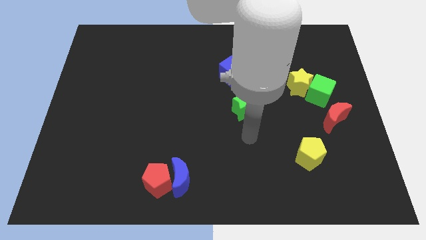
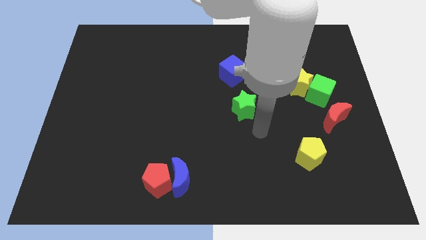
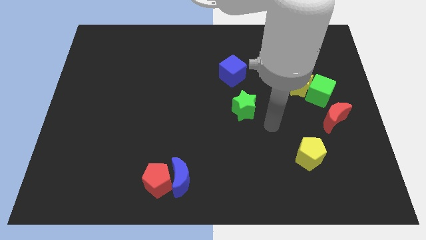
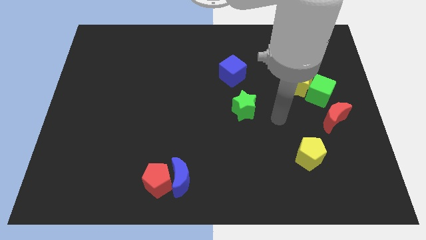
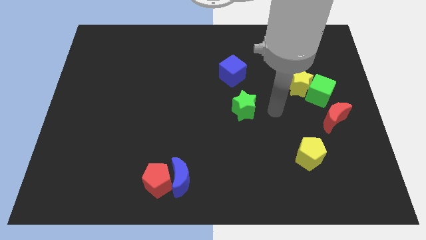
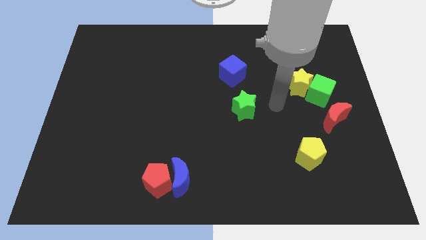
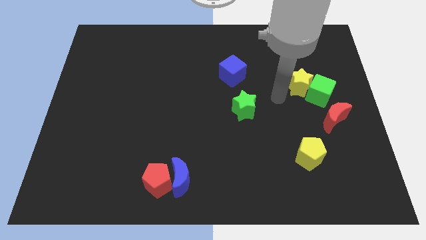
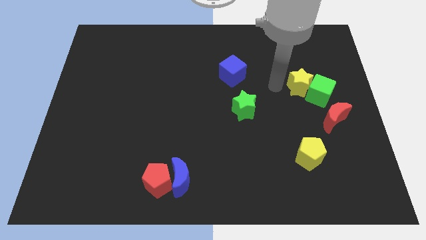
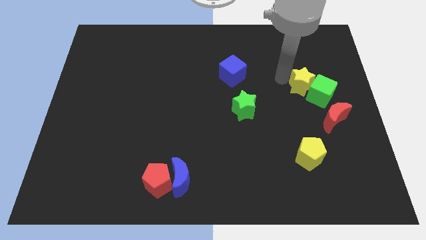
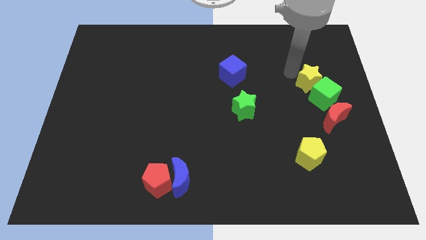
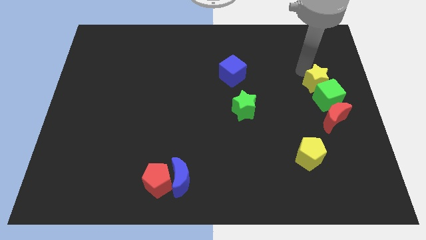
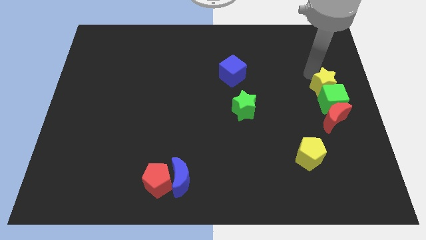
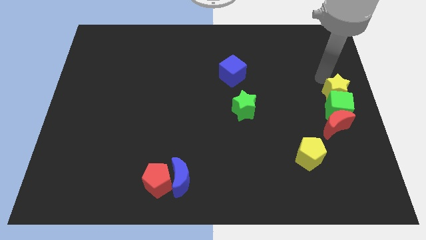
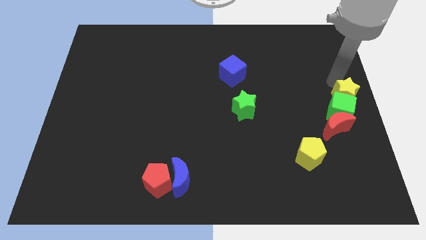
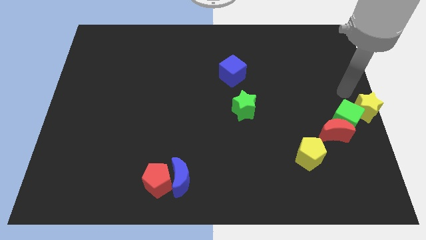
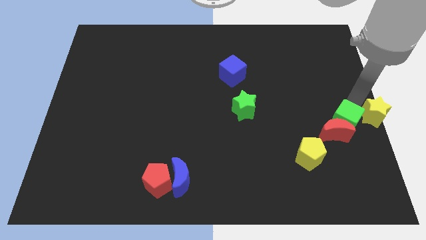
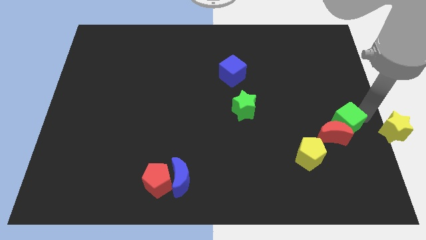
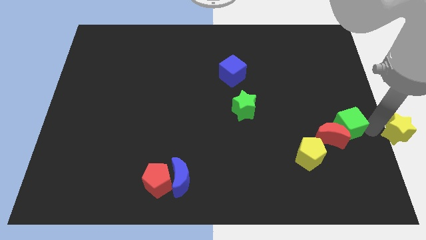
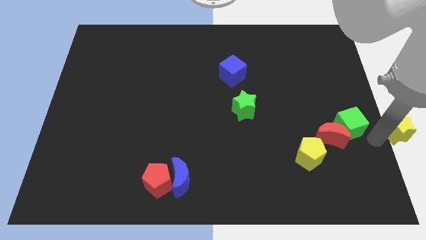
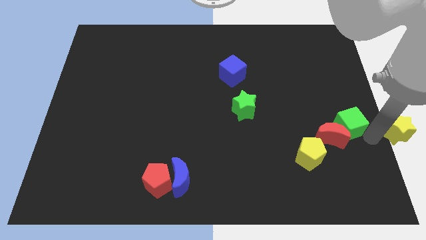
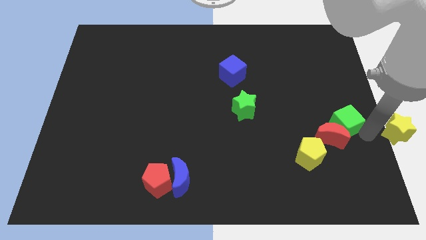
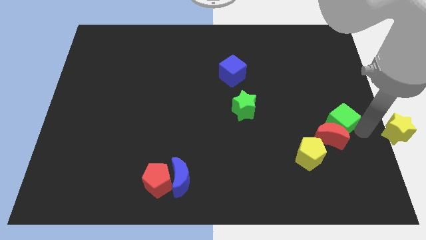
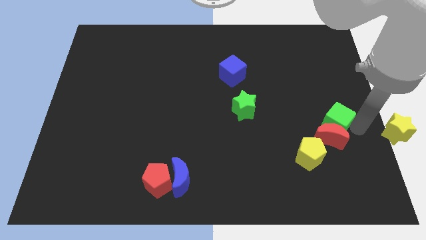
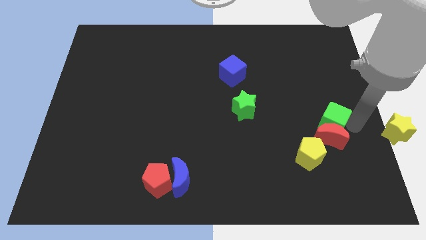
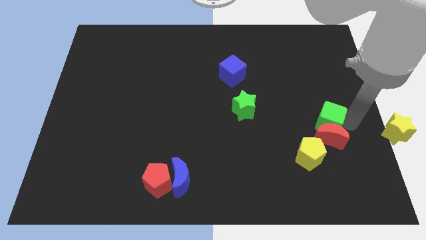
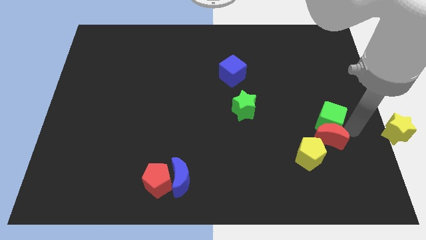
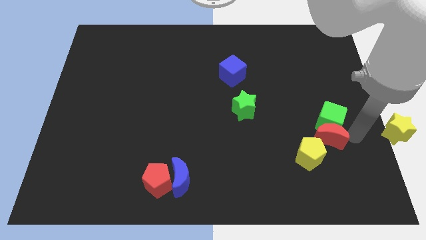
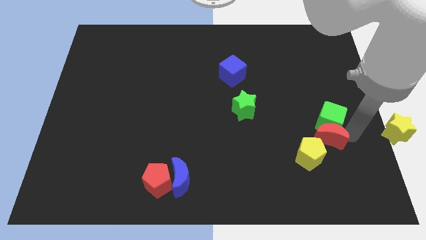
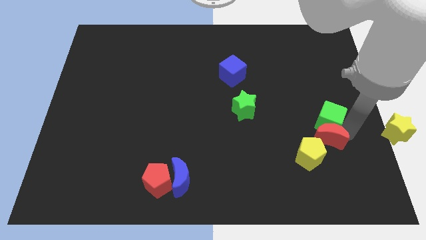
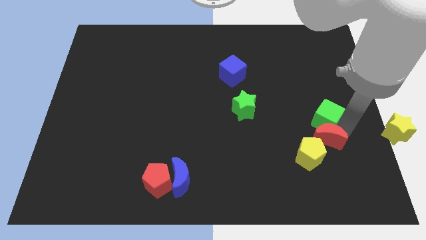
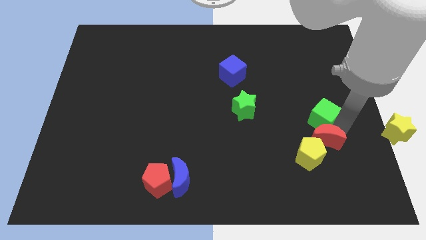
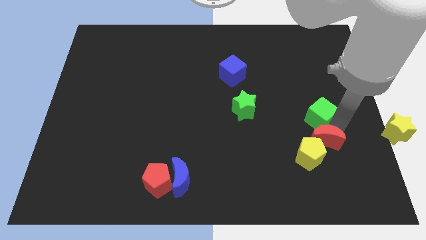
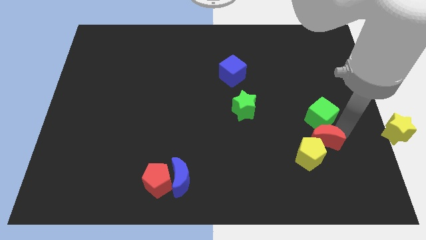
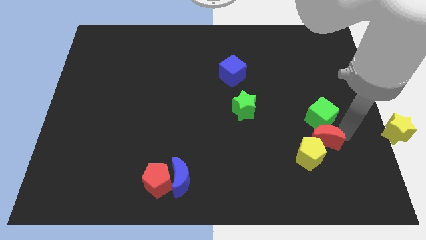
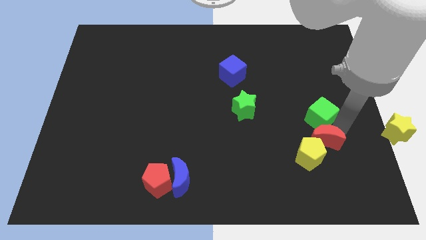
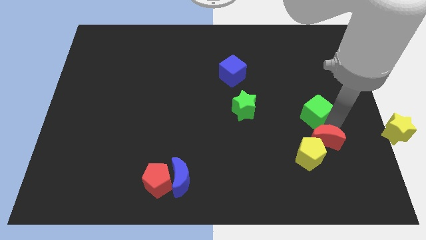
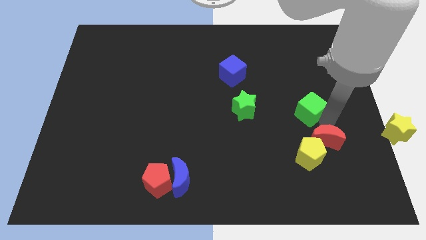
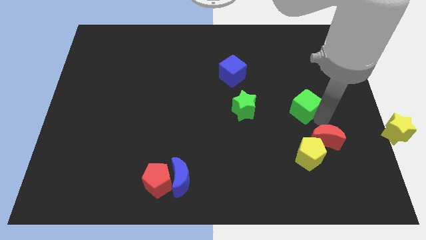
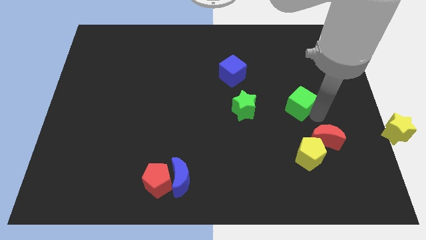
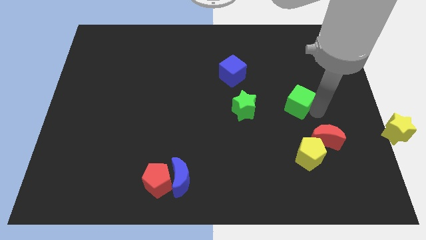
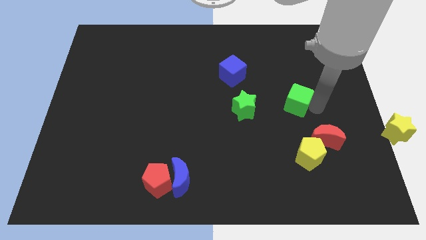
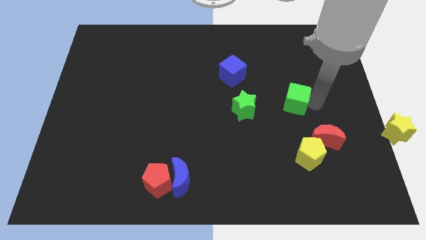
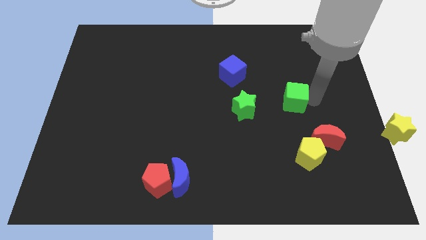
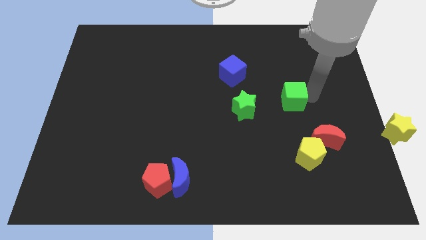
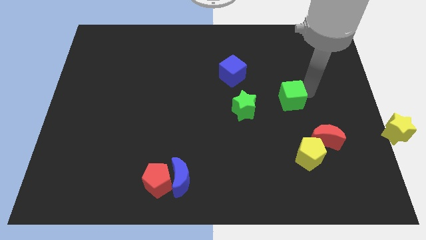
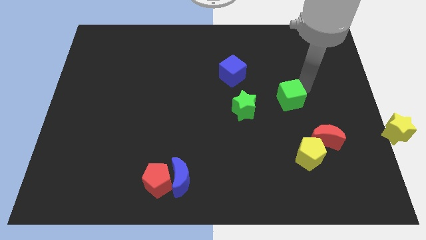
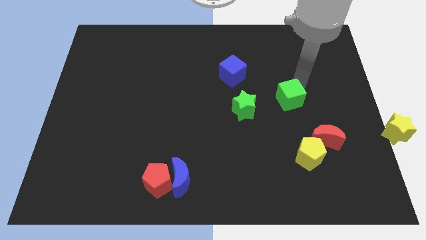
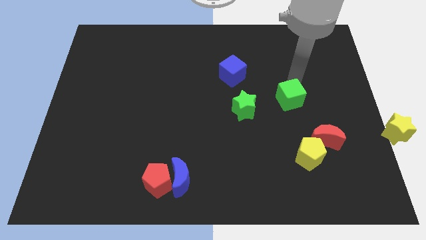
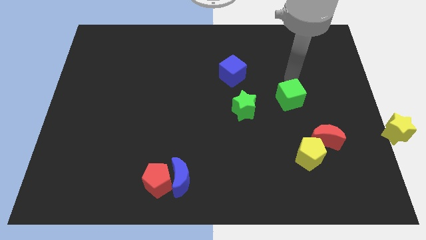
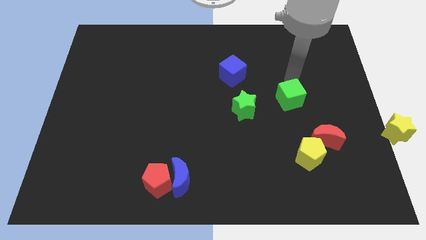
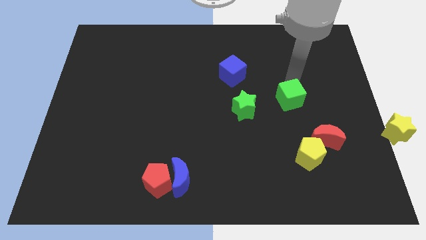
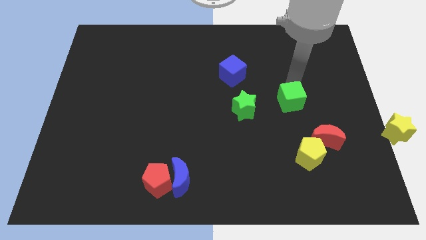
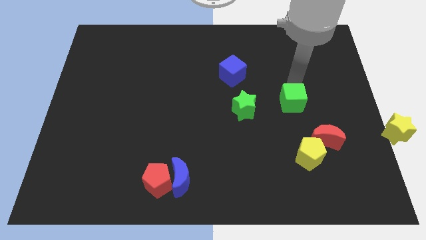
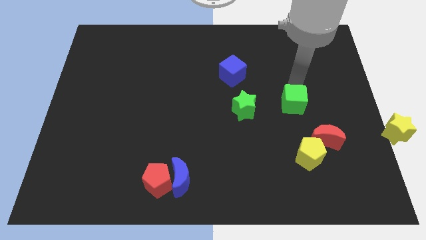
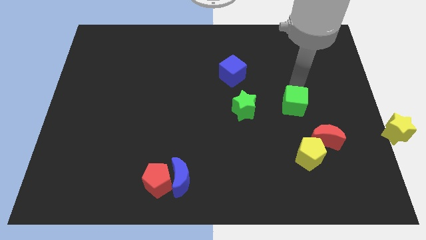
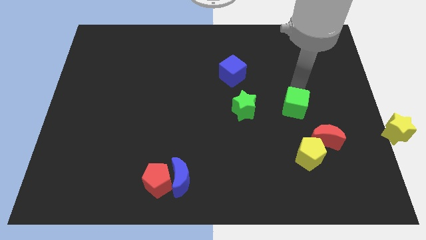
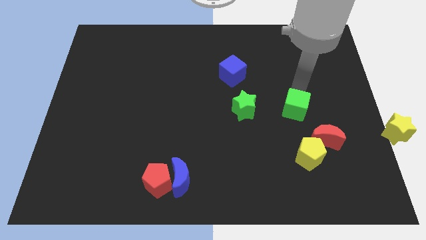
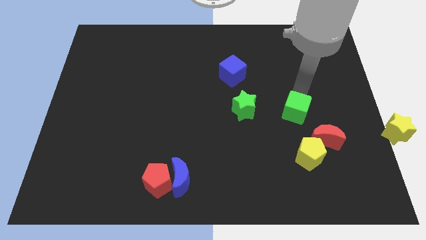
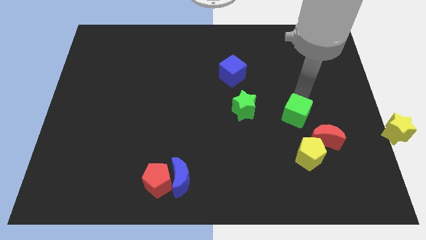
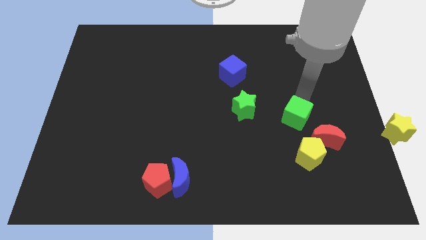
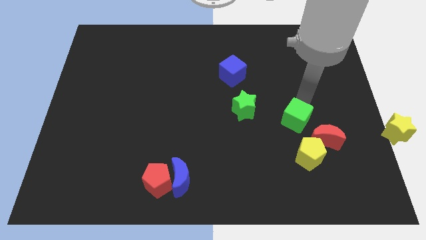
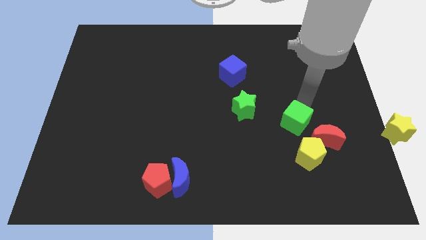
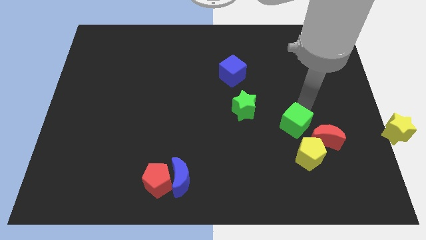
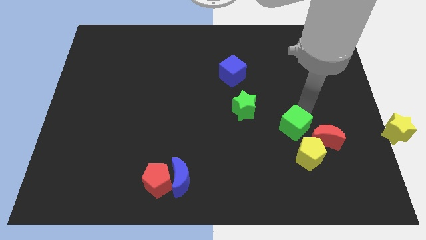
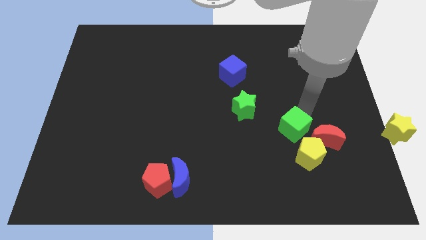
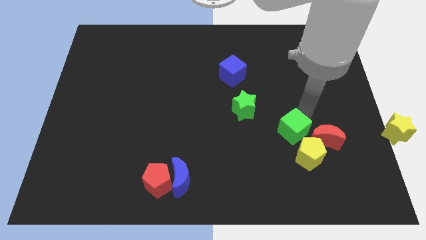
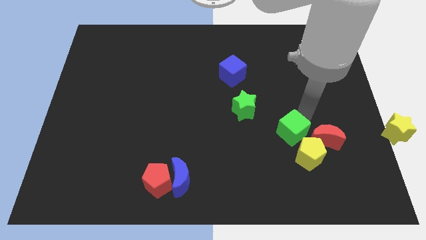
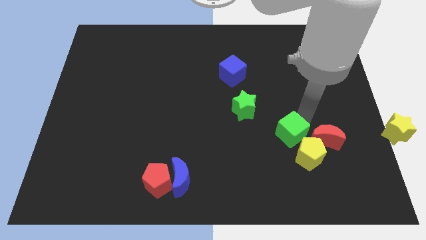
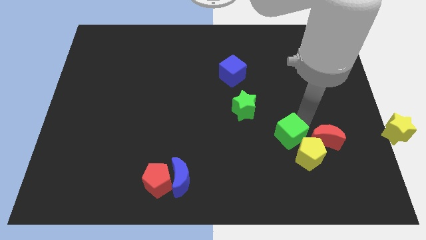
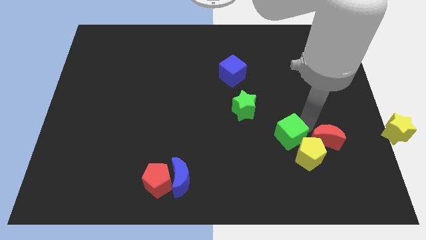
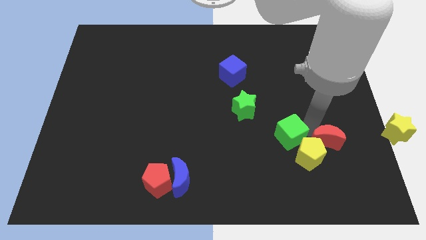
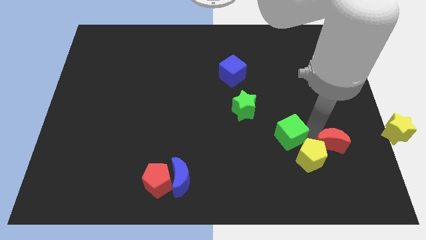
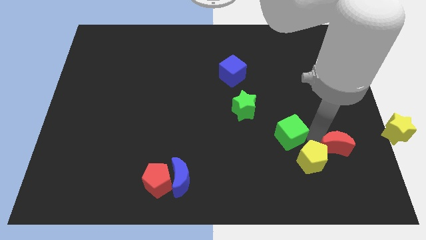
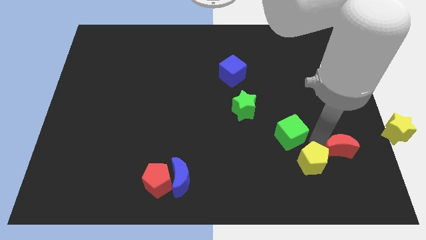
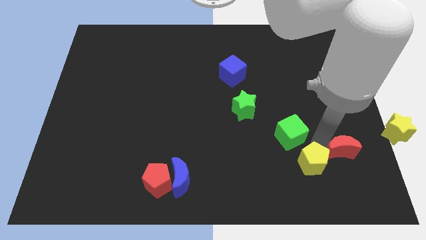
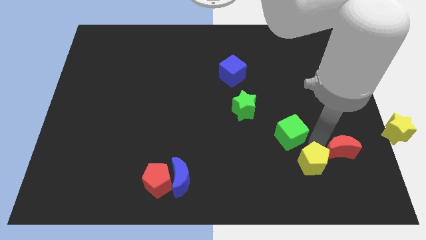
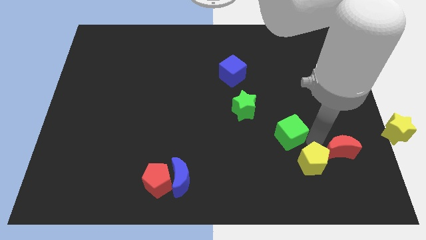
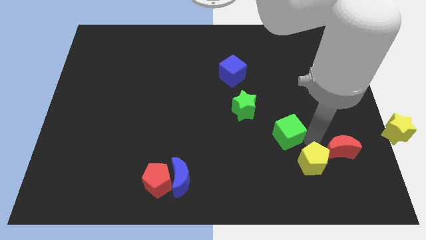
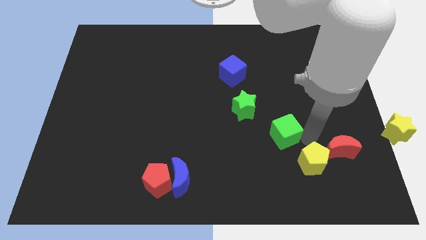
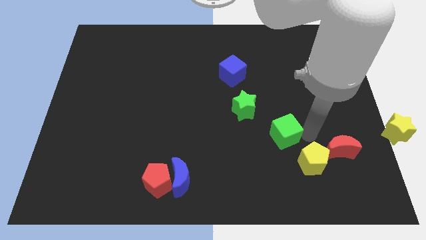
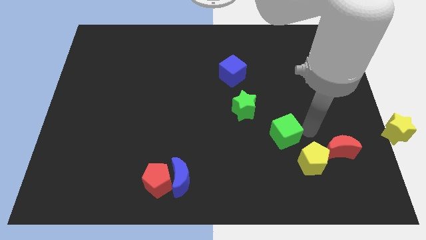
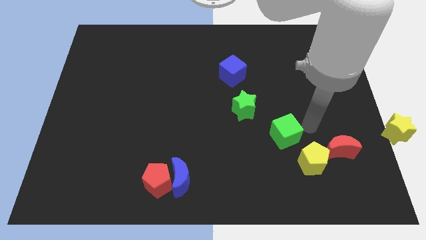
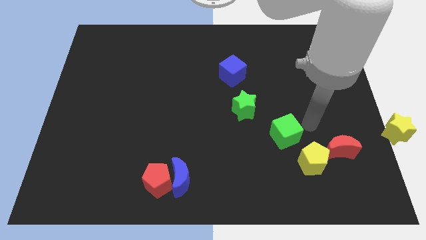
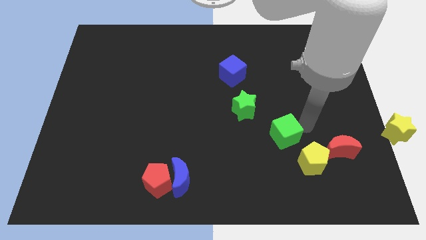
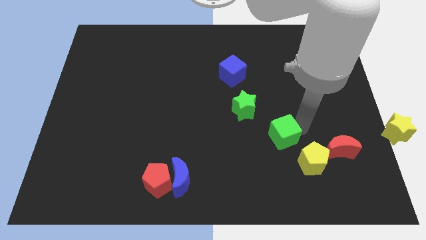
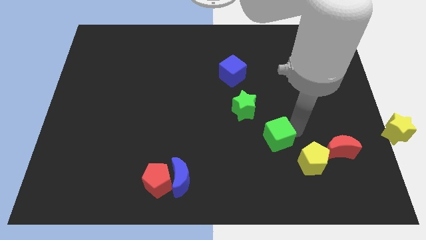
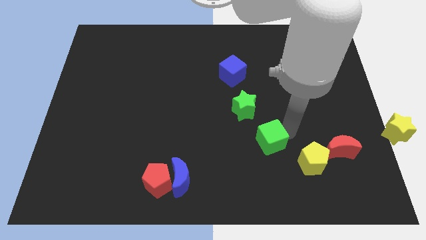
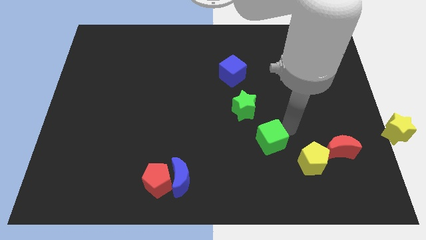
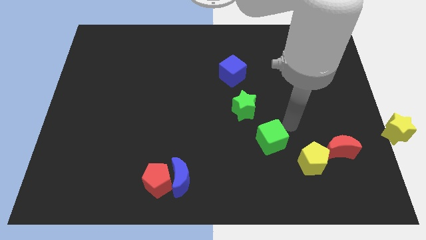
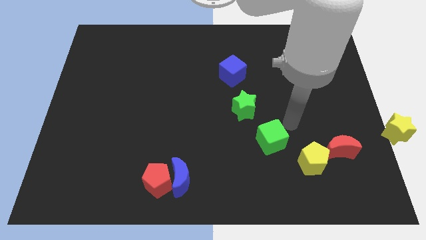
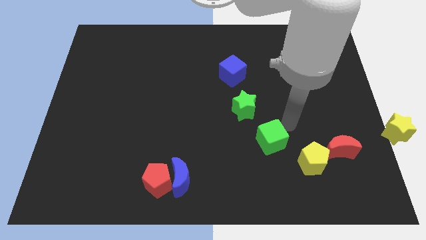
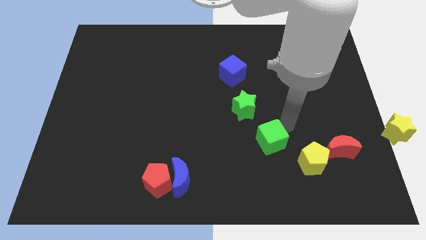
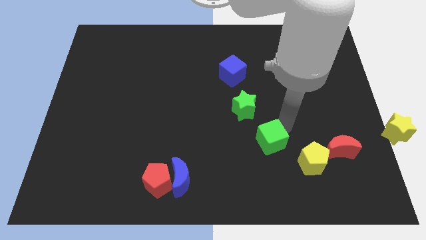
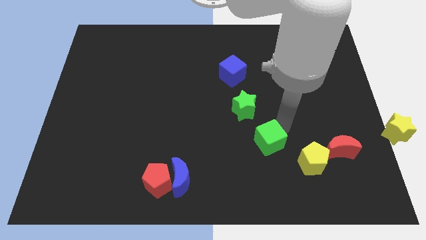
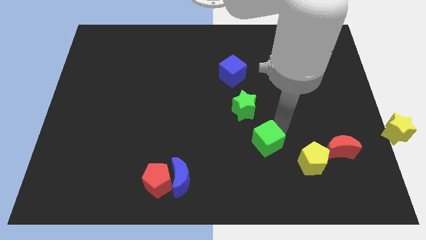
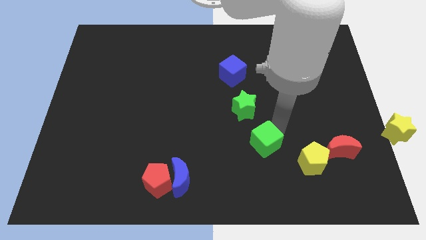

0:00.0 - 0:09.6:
move the green cube down and left diagonally
